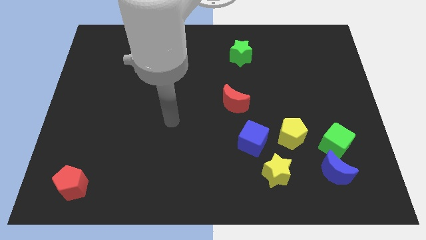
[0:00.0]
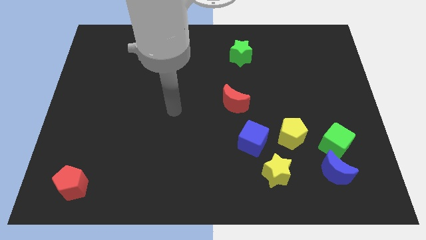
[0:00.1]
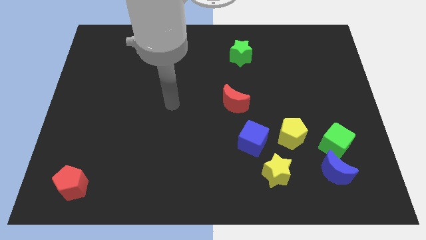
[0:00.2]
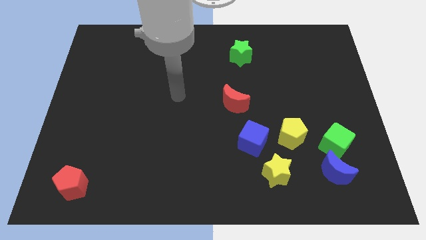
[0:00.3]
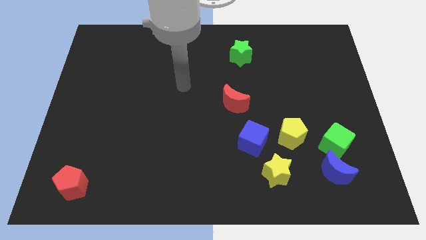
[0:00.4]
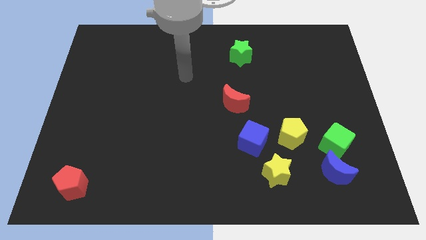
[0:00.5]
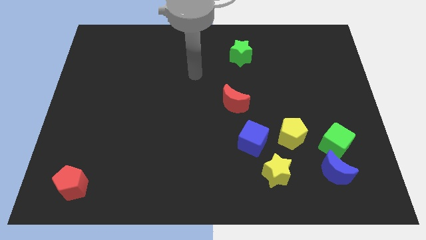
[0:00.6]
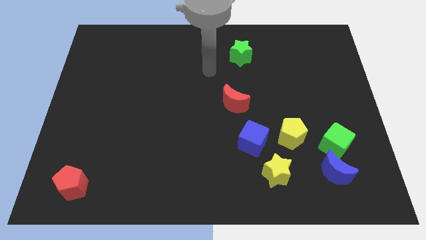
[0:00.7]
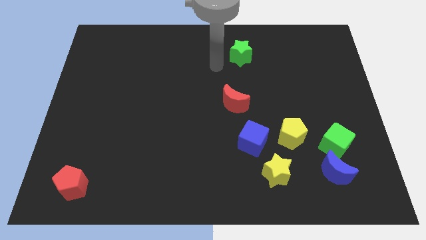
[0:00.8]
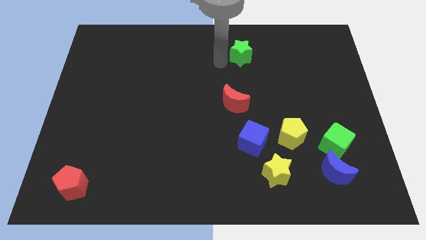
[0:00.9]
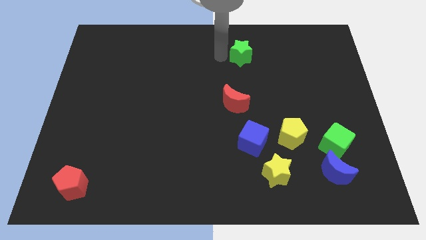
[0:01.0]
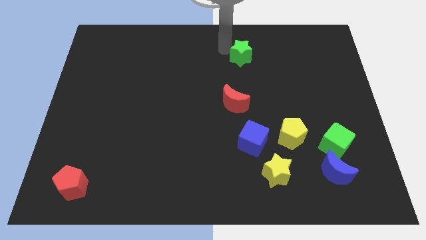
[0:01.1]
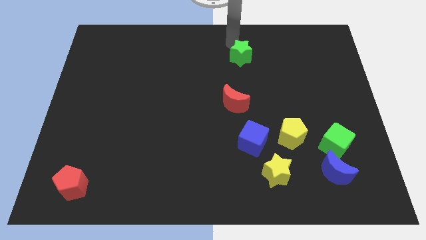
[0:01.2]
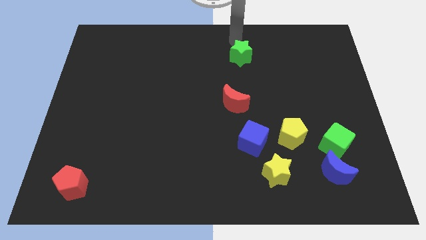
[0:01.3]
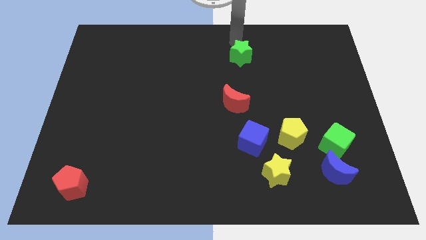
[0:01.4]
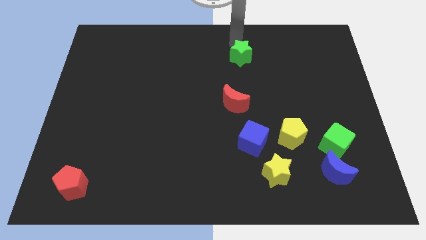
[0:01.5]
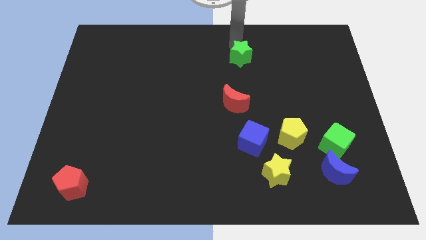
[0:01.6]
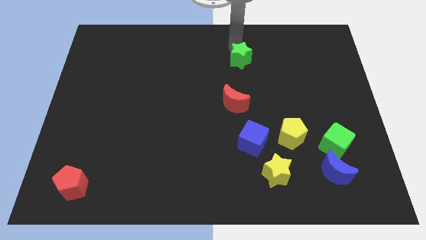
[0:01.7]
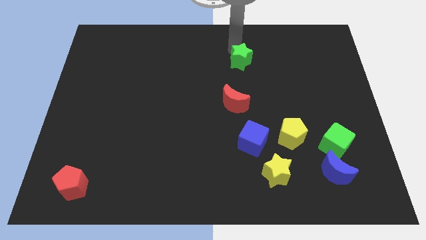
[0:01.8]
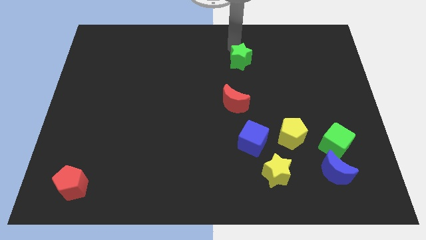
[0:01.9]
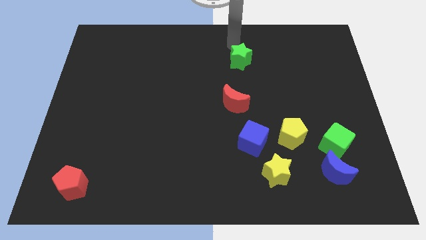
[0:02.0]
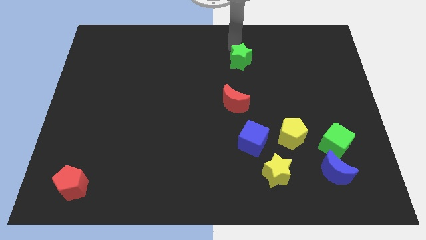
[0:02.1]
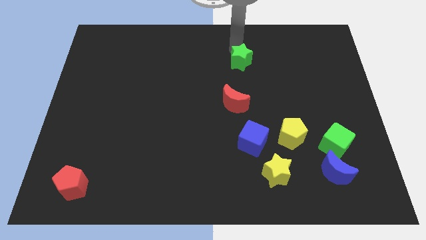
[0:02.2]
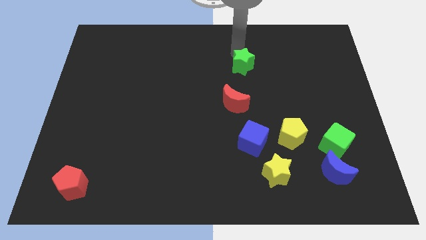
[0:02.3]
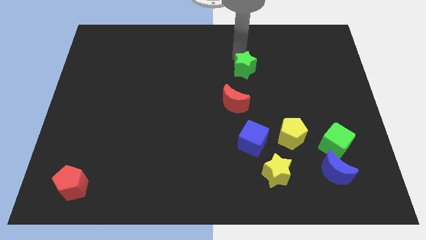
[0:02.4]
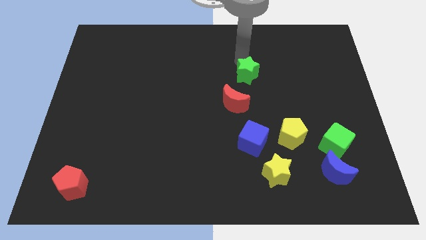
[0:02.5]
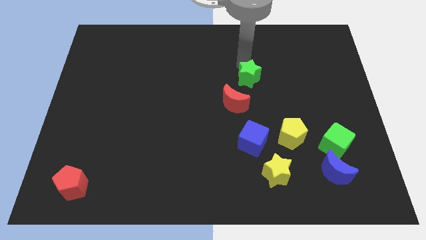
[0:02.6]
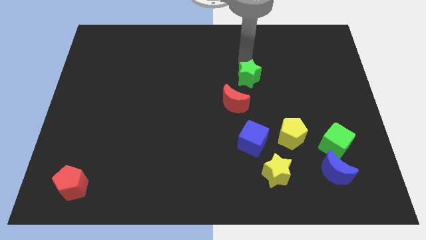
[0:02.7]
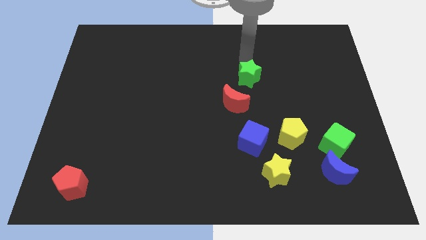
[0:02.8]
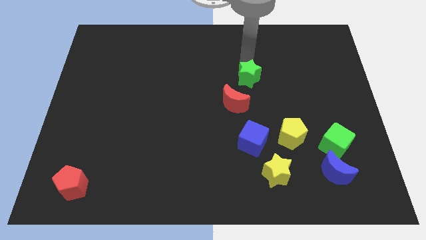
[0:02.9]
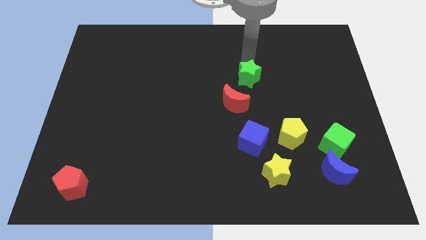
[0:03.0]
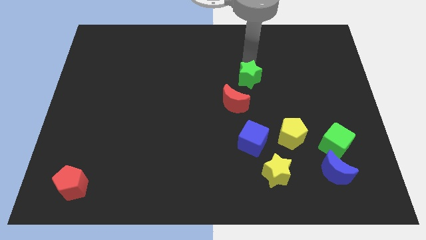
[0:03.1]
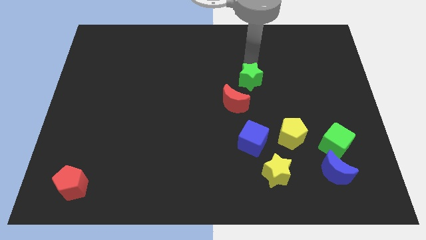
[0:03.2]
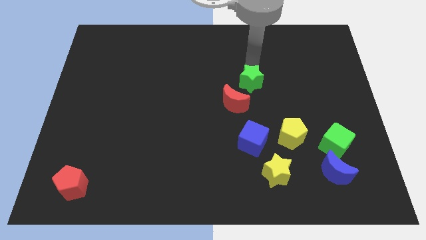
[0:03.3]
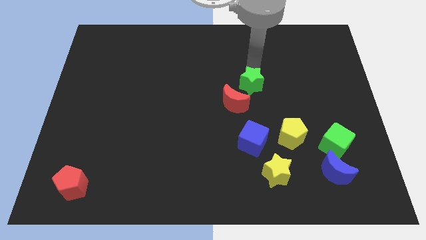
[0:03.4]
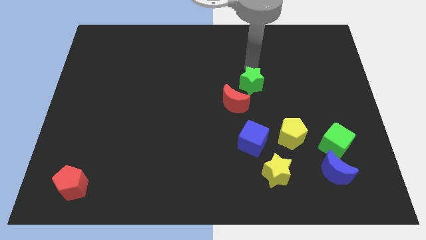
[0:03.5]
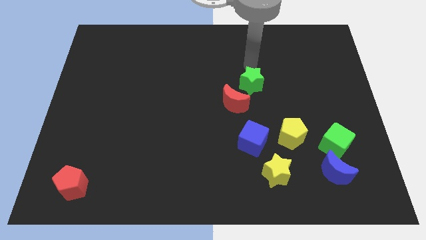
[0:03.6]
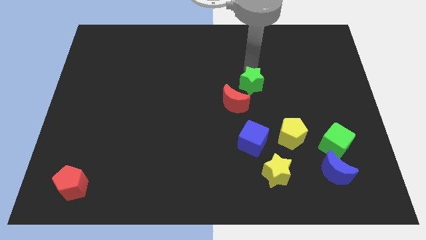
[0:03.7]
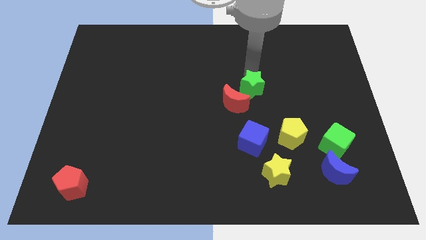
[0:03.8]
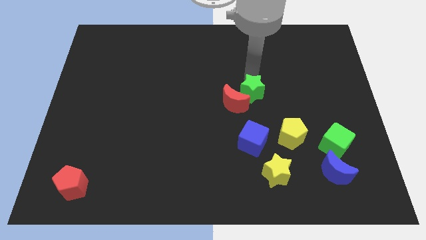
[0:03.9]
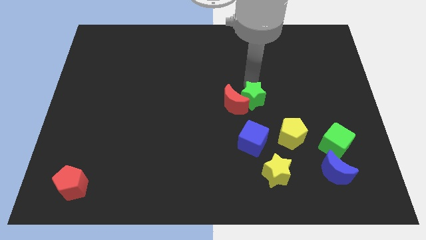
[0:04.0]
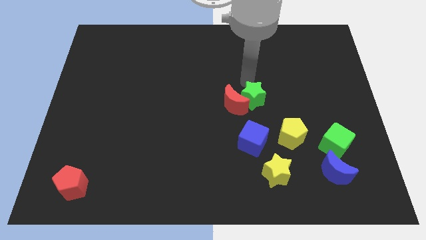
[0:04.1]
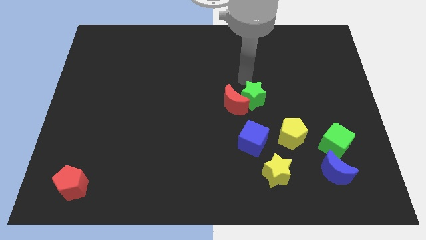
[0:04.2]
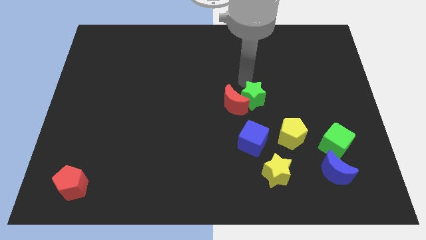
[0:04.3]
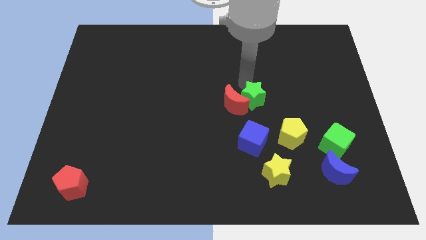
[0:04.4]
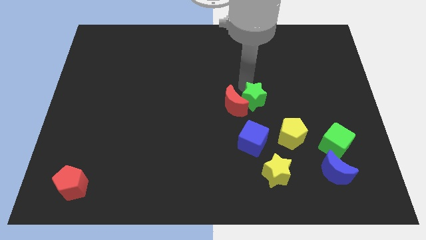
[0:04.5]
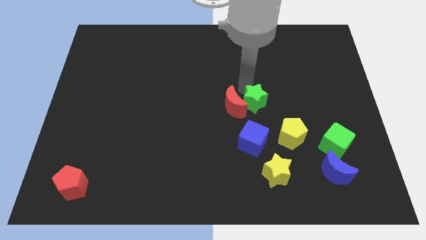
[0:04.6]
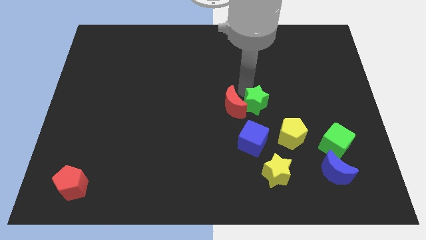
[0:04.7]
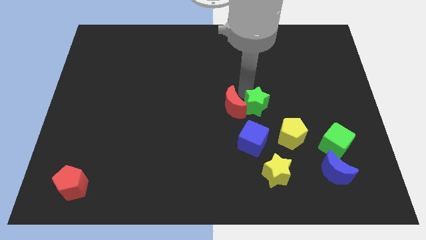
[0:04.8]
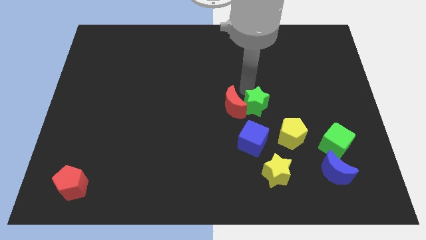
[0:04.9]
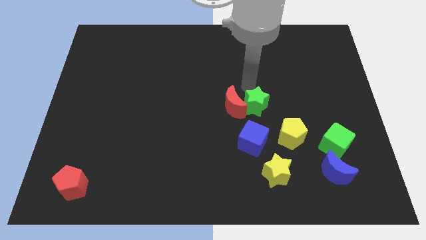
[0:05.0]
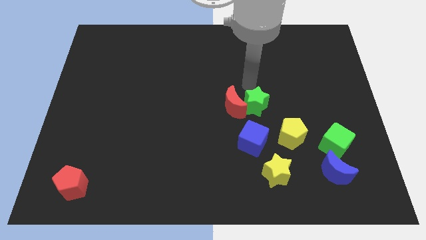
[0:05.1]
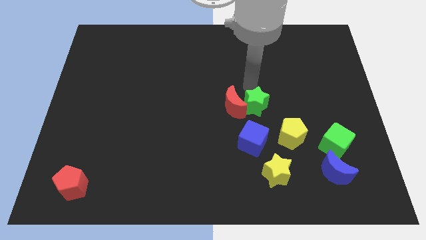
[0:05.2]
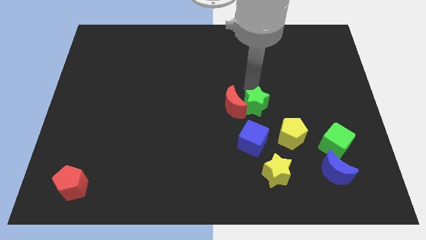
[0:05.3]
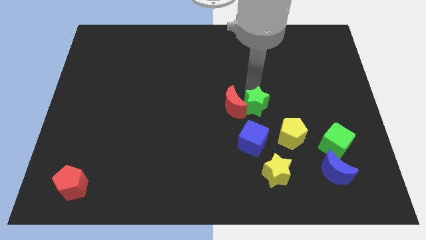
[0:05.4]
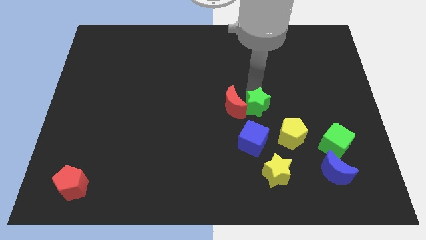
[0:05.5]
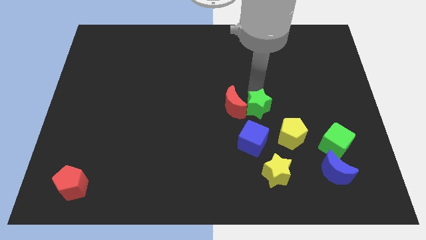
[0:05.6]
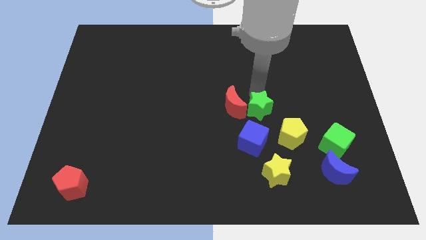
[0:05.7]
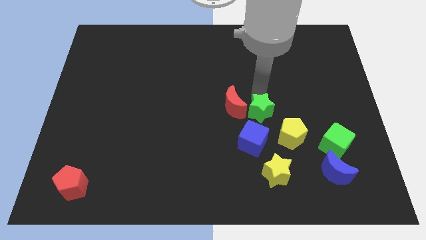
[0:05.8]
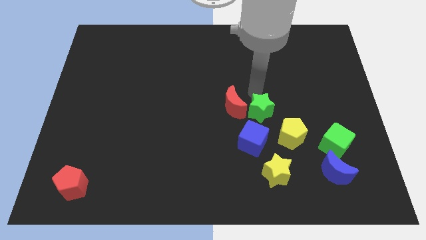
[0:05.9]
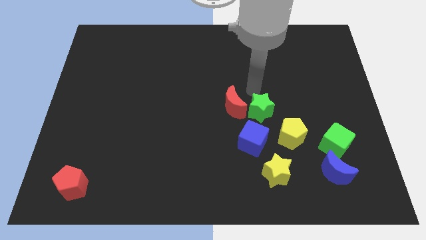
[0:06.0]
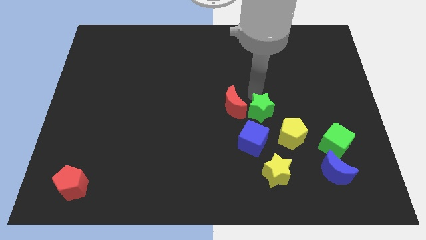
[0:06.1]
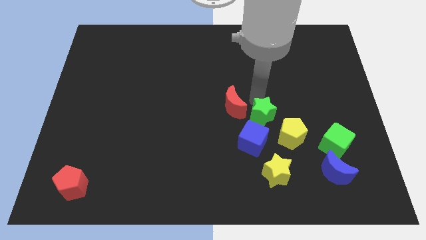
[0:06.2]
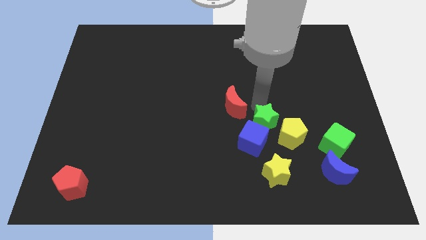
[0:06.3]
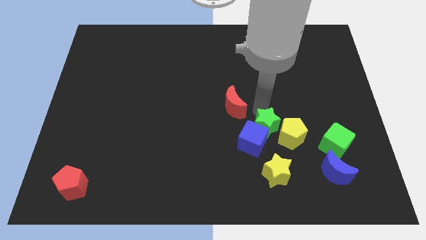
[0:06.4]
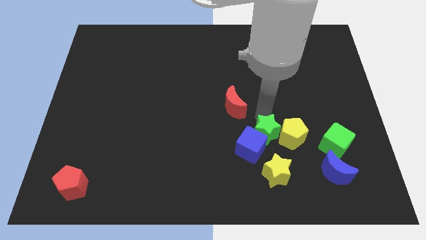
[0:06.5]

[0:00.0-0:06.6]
push the green star diagonally down and to the left of the yellow pentagon
